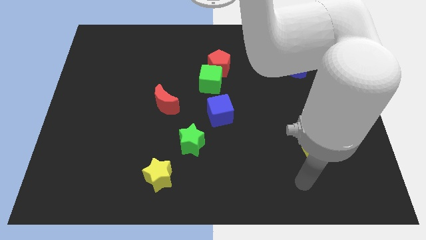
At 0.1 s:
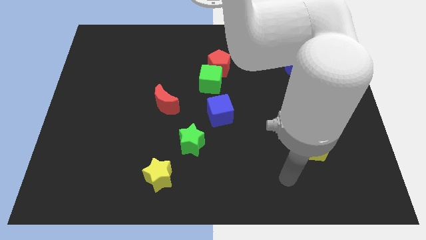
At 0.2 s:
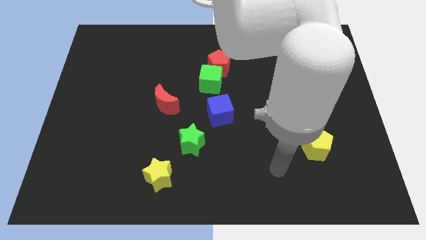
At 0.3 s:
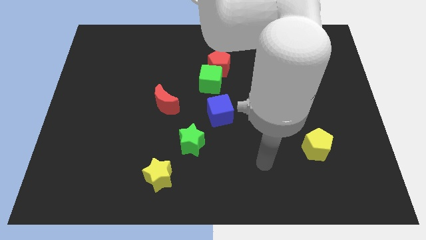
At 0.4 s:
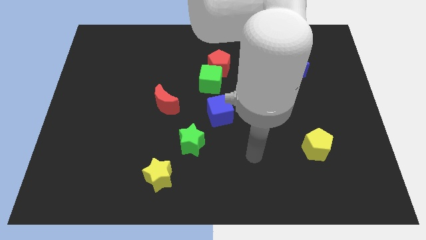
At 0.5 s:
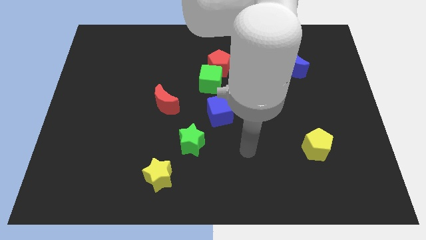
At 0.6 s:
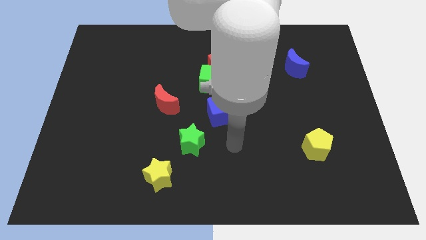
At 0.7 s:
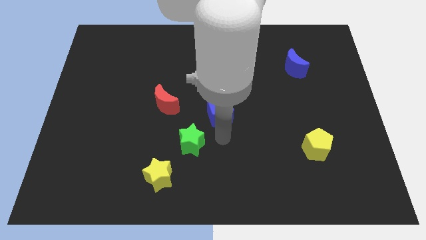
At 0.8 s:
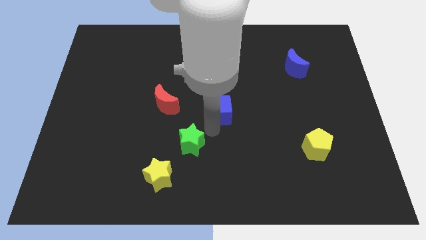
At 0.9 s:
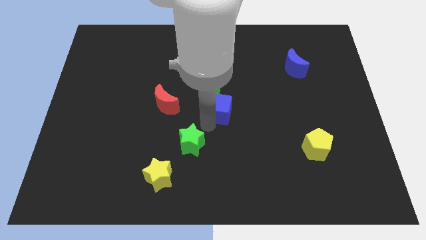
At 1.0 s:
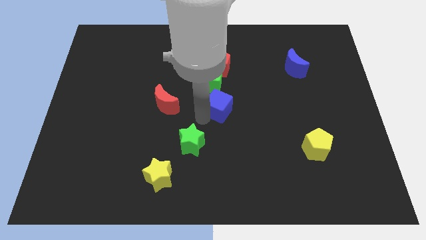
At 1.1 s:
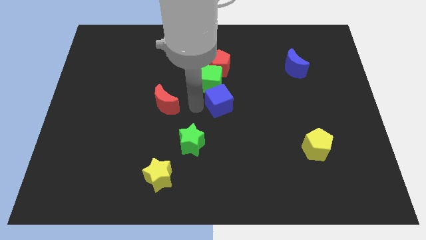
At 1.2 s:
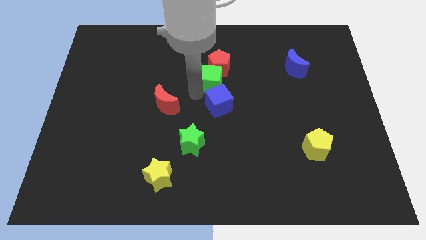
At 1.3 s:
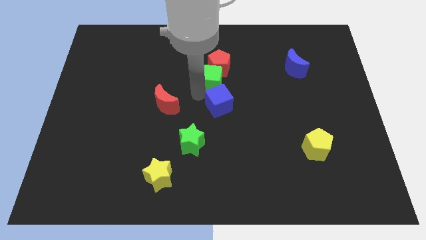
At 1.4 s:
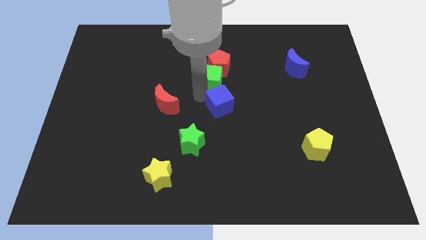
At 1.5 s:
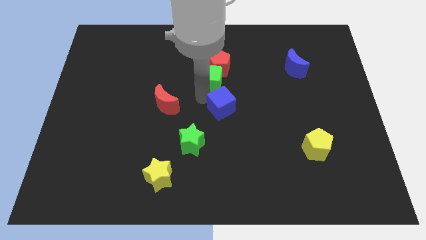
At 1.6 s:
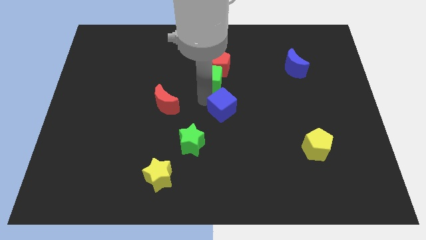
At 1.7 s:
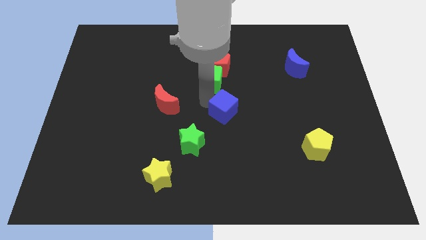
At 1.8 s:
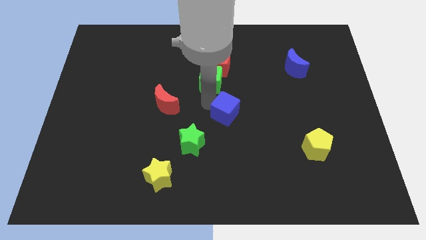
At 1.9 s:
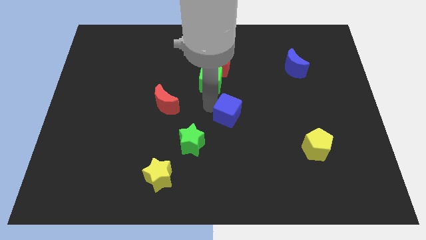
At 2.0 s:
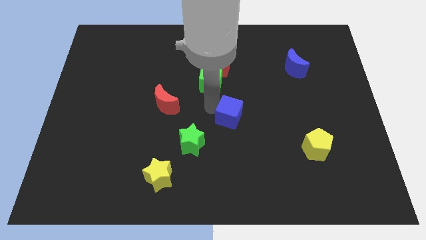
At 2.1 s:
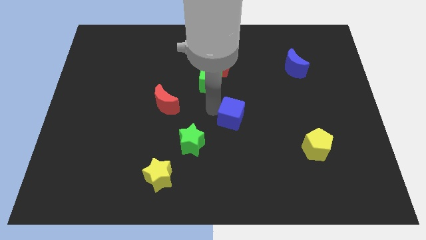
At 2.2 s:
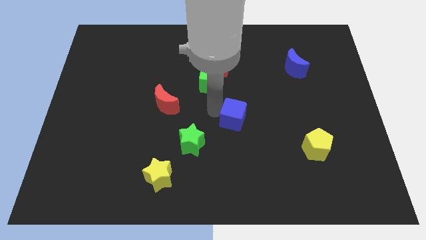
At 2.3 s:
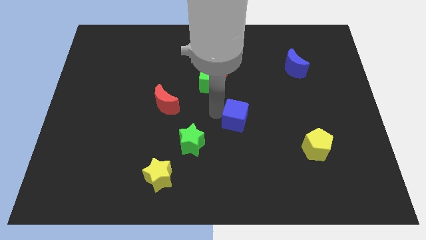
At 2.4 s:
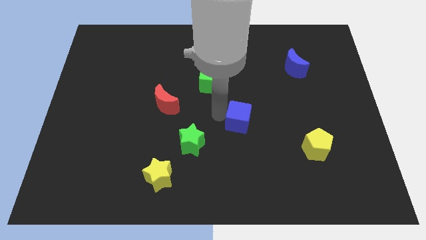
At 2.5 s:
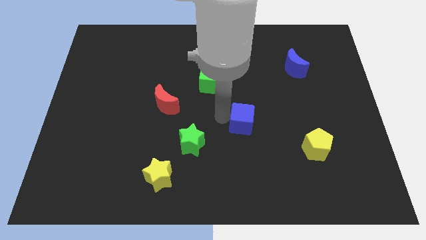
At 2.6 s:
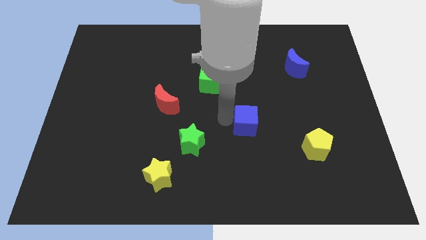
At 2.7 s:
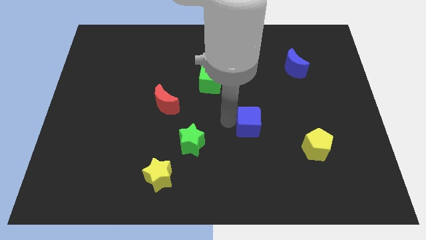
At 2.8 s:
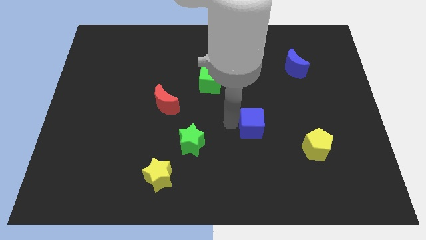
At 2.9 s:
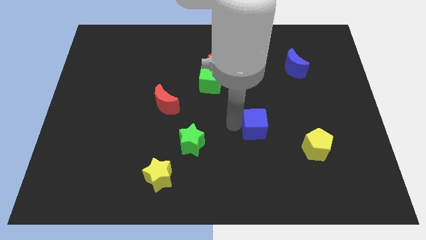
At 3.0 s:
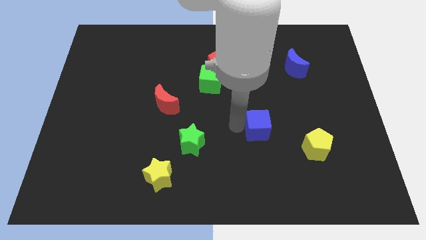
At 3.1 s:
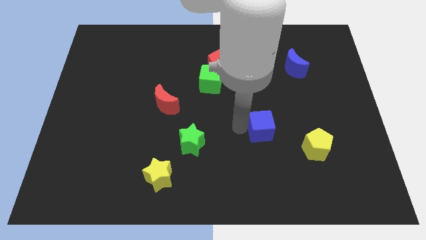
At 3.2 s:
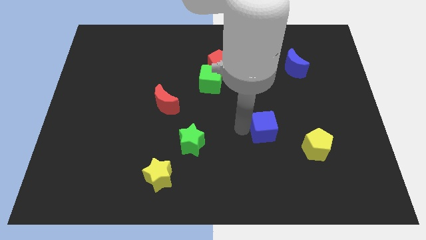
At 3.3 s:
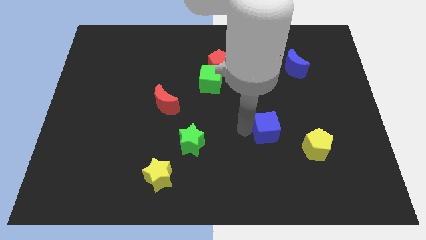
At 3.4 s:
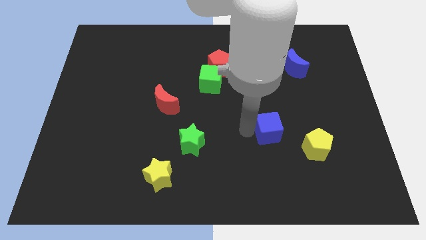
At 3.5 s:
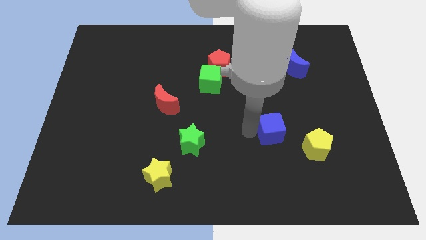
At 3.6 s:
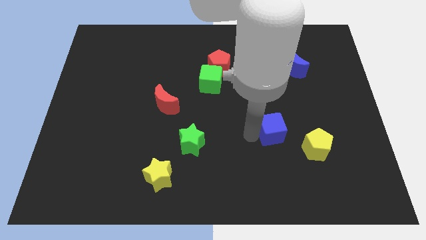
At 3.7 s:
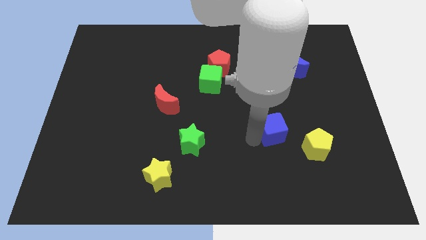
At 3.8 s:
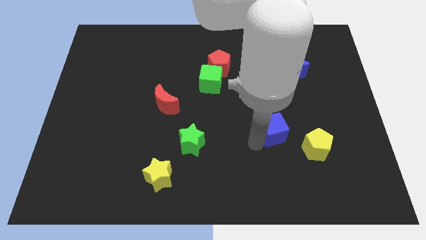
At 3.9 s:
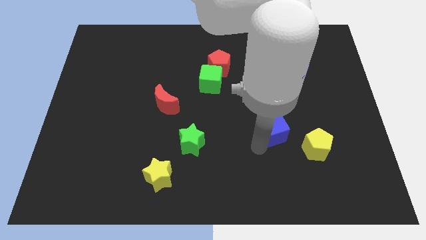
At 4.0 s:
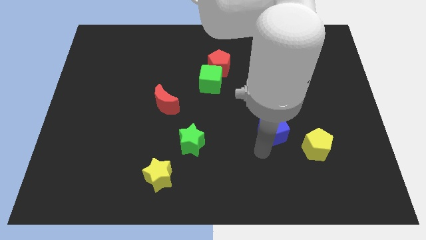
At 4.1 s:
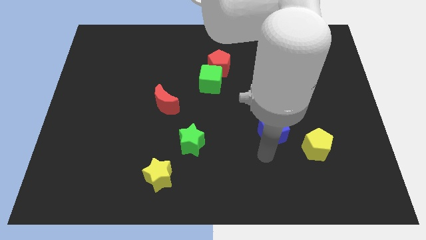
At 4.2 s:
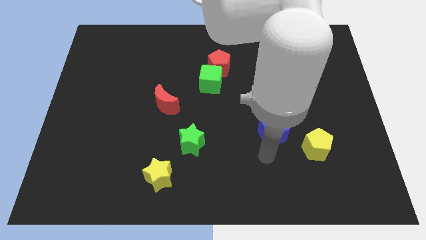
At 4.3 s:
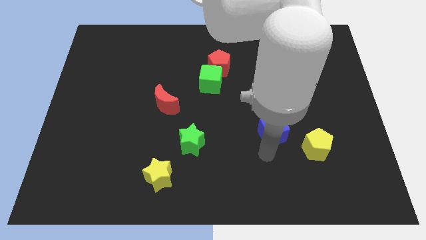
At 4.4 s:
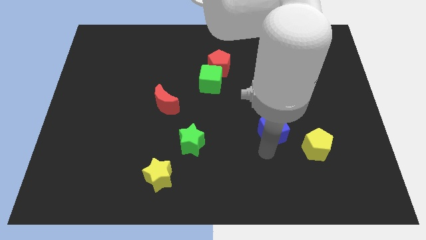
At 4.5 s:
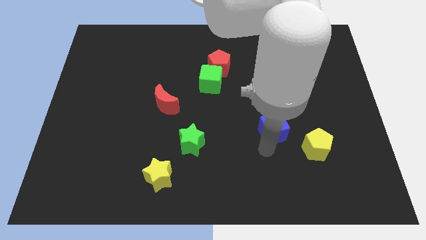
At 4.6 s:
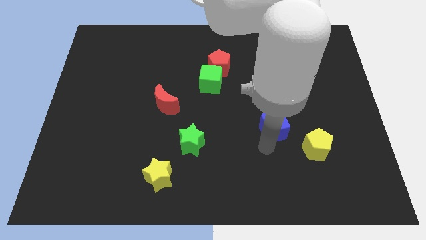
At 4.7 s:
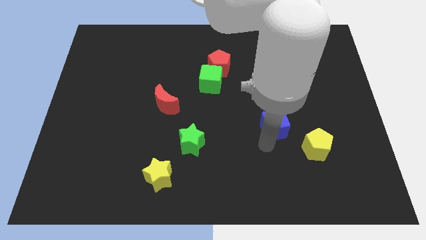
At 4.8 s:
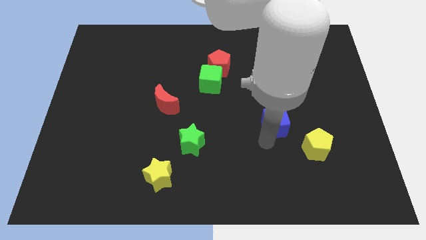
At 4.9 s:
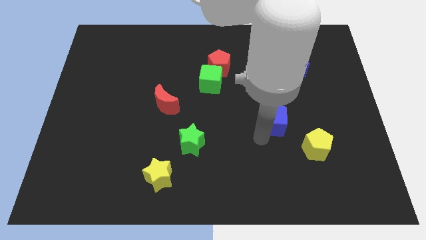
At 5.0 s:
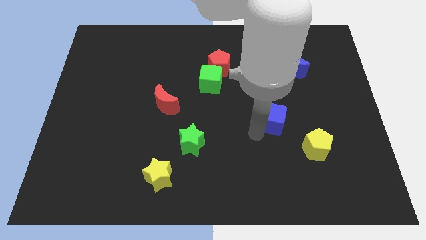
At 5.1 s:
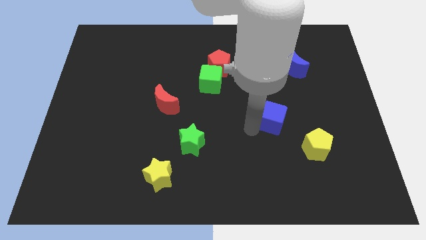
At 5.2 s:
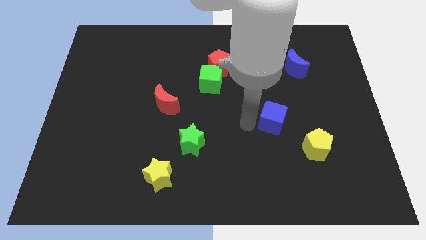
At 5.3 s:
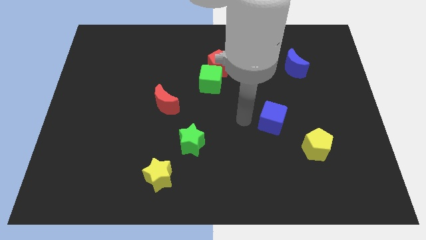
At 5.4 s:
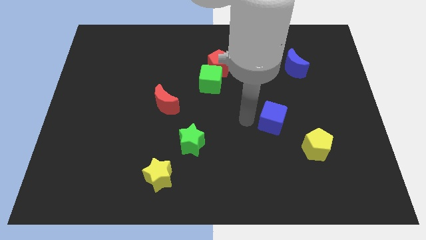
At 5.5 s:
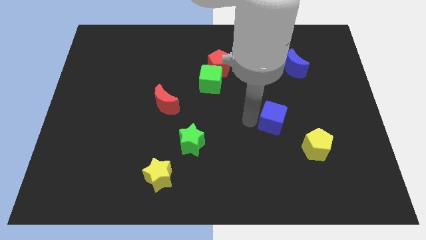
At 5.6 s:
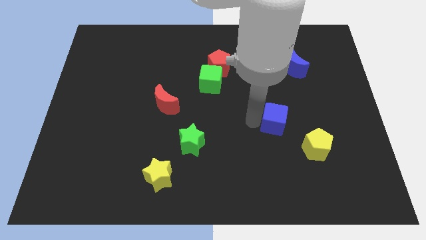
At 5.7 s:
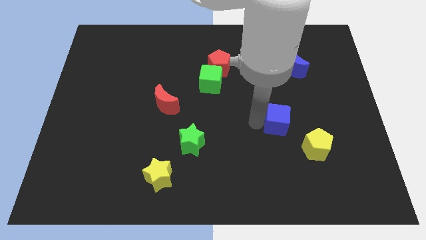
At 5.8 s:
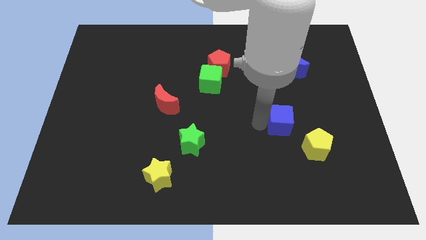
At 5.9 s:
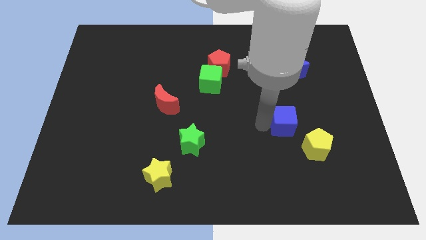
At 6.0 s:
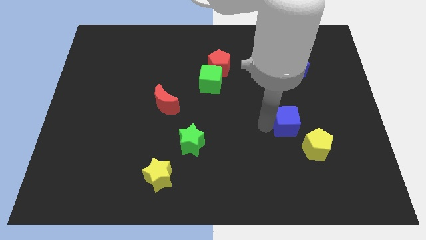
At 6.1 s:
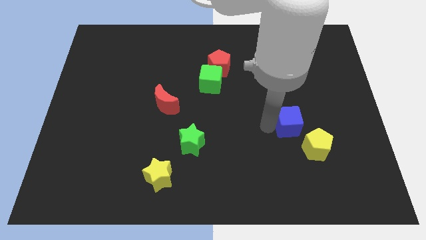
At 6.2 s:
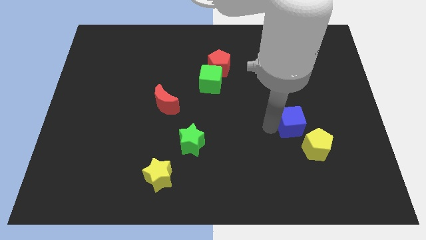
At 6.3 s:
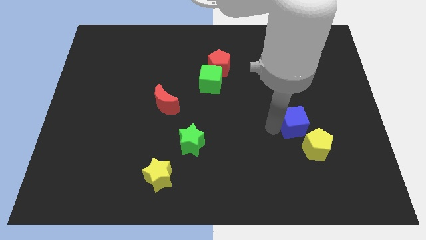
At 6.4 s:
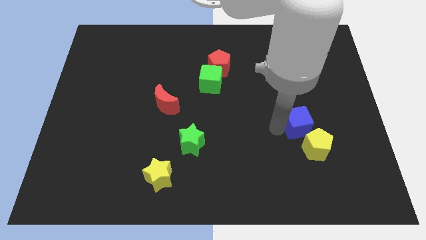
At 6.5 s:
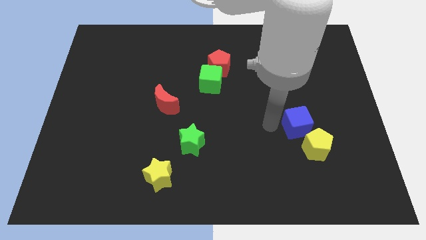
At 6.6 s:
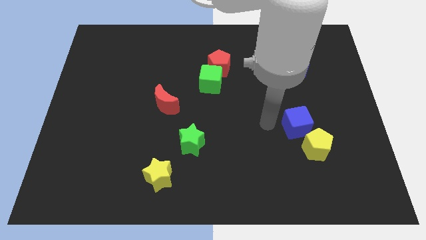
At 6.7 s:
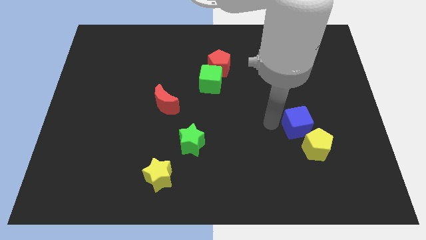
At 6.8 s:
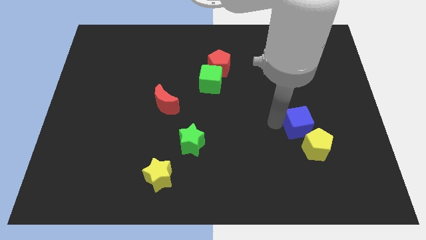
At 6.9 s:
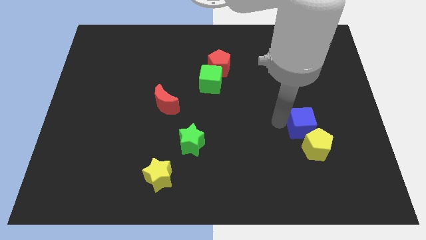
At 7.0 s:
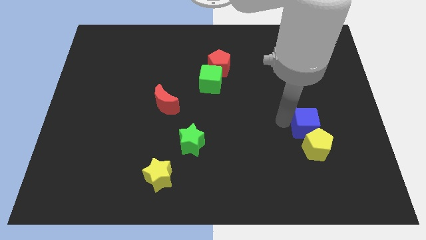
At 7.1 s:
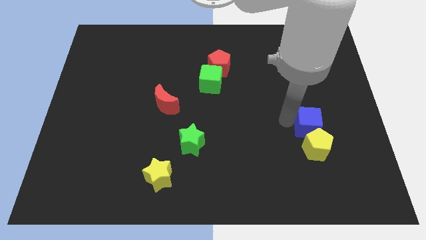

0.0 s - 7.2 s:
move the blue cube to the top right of the yellow pentagon
